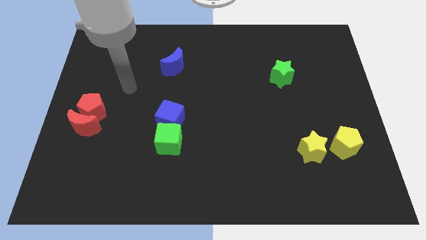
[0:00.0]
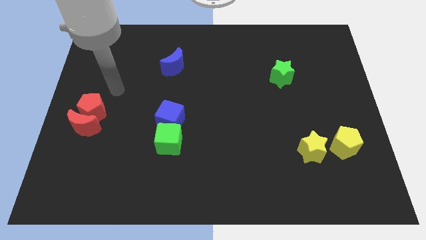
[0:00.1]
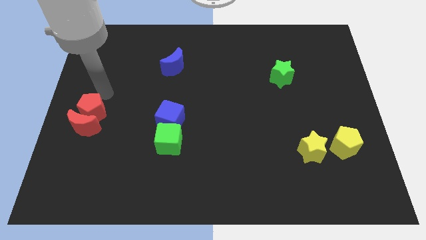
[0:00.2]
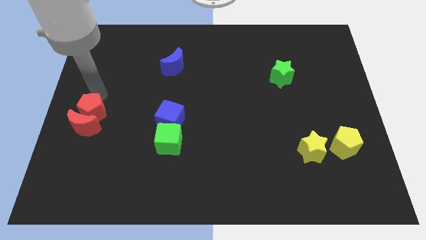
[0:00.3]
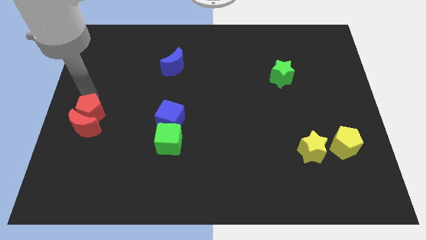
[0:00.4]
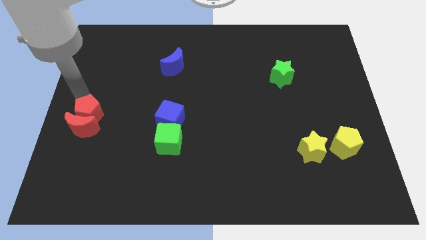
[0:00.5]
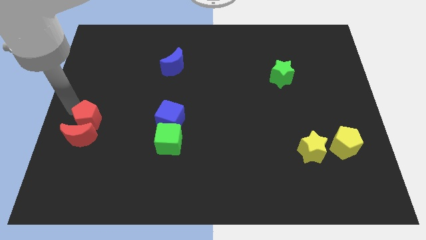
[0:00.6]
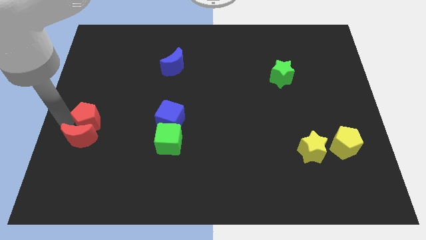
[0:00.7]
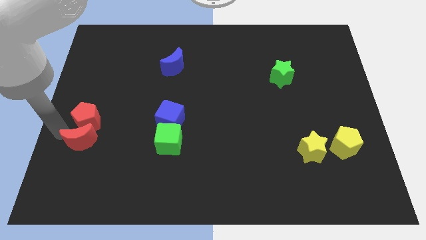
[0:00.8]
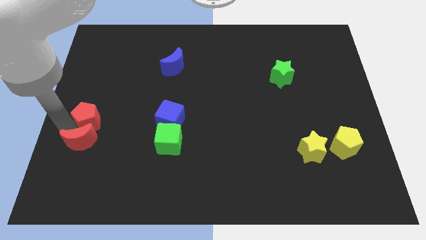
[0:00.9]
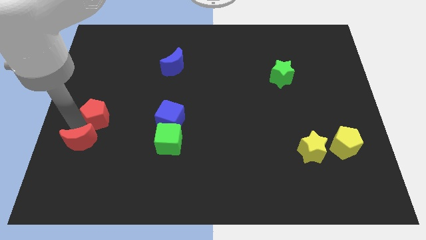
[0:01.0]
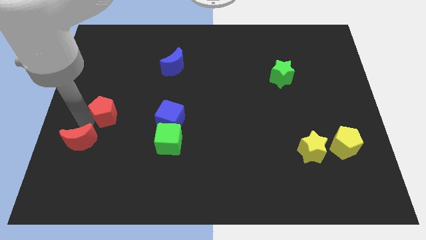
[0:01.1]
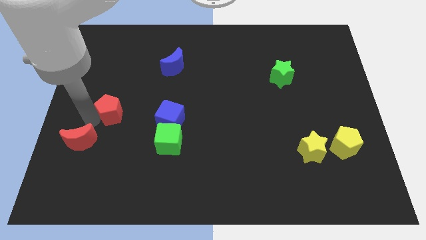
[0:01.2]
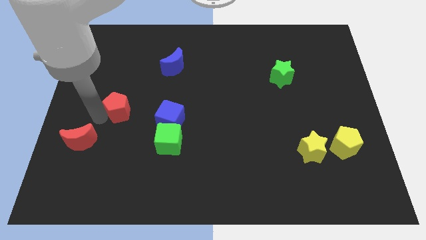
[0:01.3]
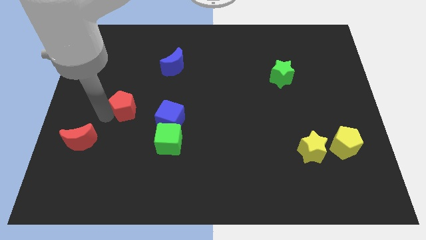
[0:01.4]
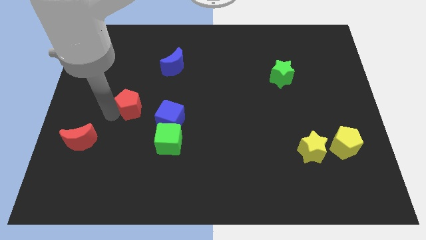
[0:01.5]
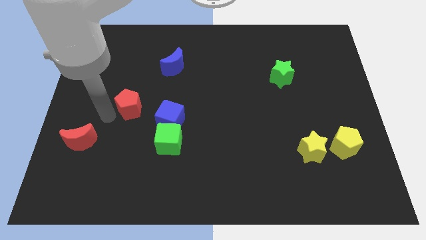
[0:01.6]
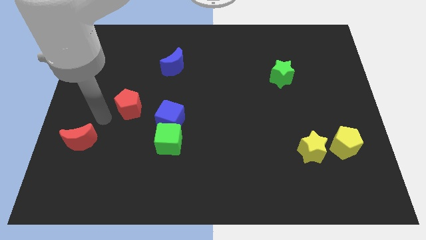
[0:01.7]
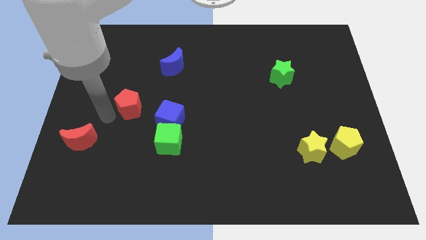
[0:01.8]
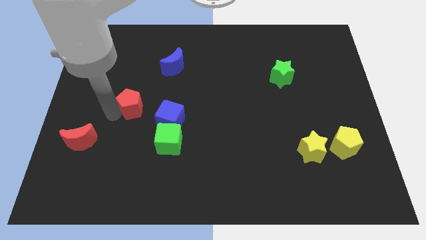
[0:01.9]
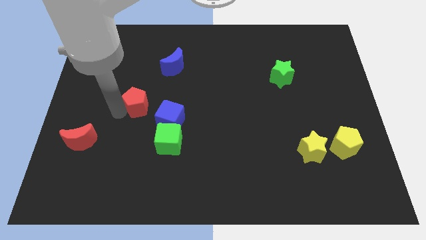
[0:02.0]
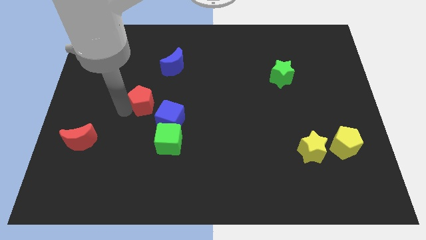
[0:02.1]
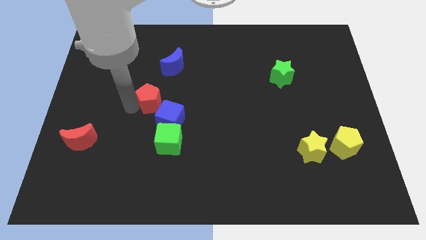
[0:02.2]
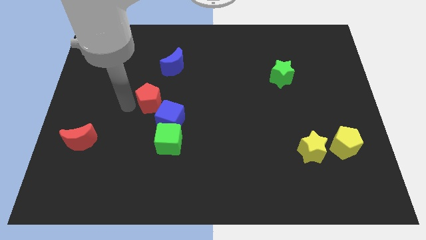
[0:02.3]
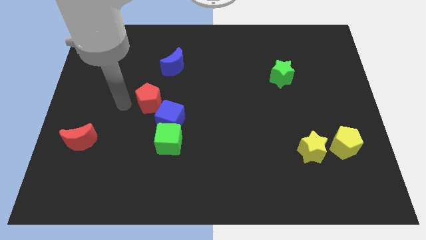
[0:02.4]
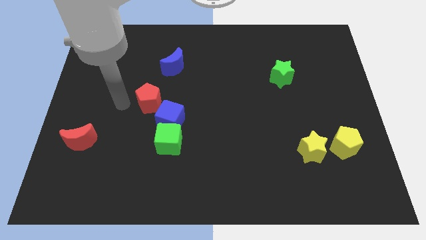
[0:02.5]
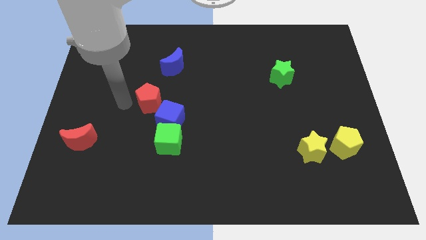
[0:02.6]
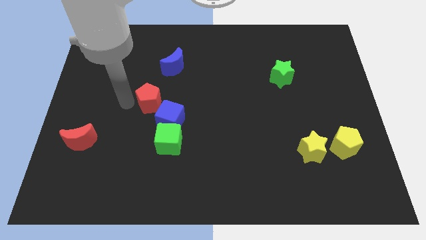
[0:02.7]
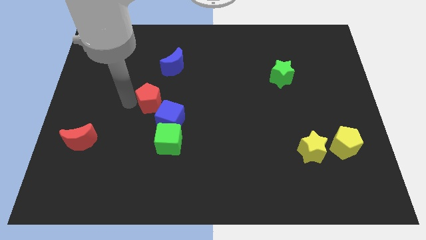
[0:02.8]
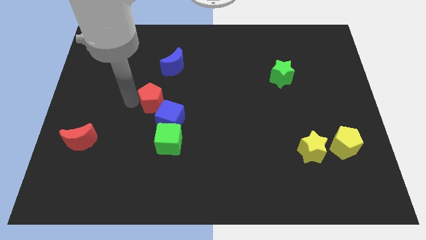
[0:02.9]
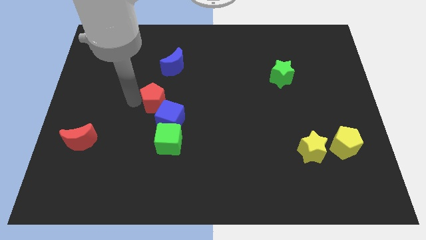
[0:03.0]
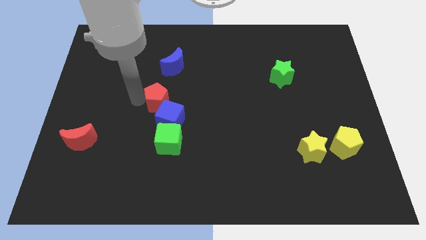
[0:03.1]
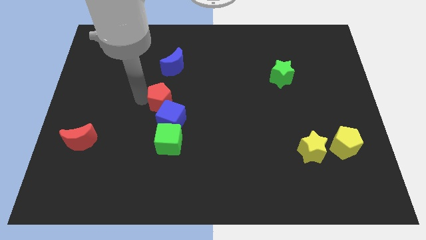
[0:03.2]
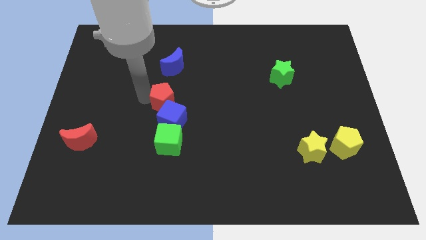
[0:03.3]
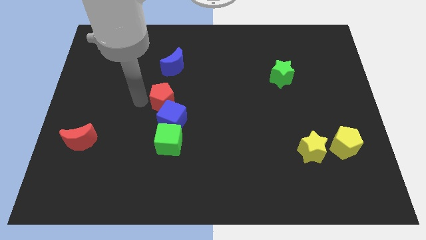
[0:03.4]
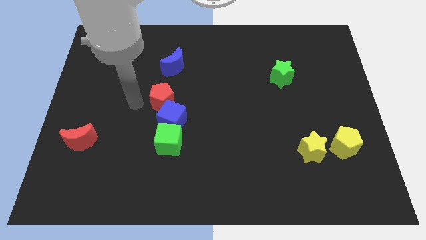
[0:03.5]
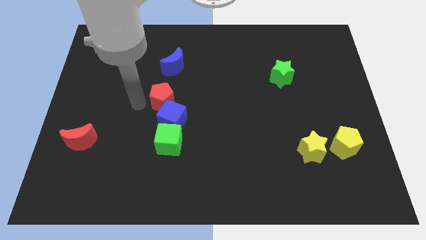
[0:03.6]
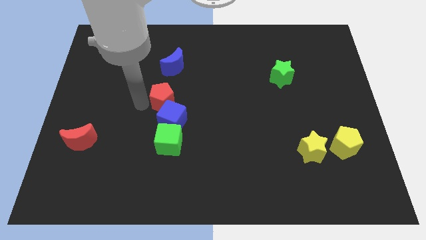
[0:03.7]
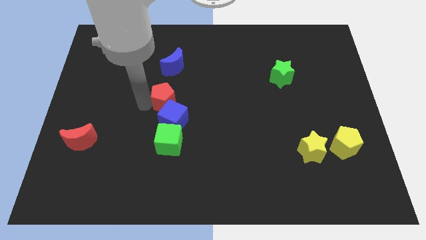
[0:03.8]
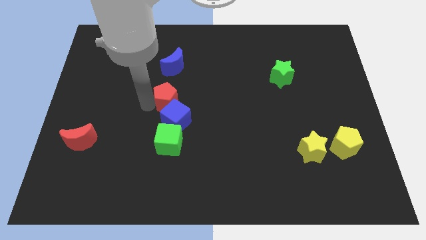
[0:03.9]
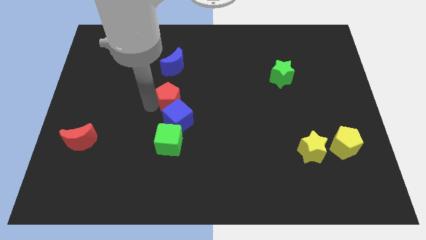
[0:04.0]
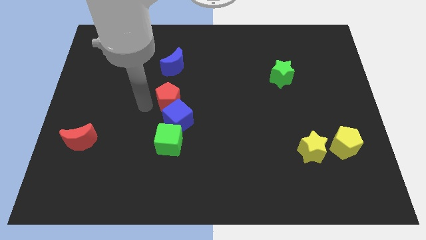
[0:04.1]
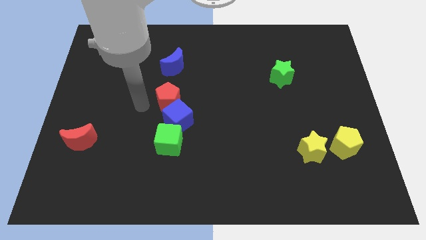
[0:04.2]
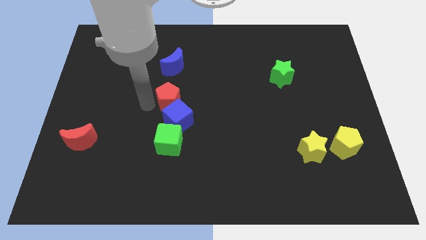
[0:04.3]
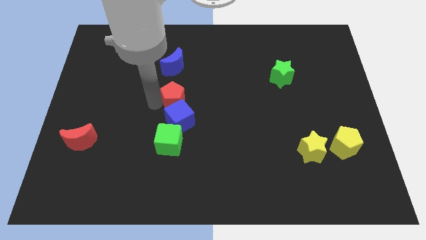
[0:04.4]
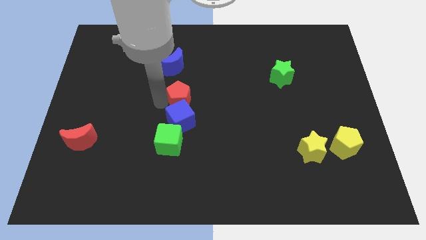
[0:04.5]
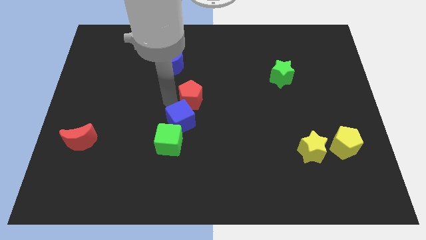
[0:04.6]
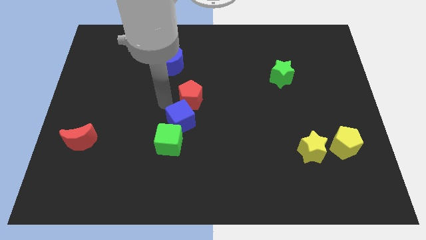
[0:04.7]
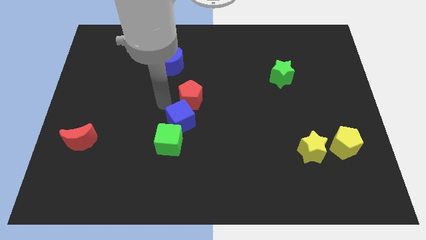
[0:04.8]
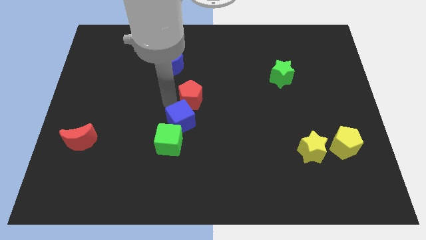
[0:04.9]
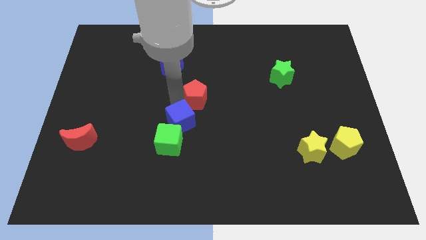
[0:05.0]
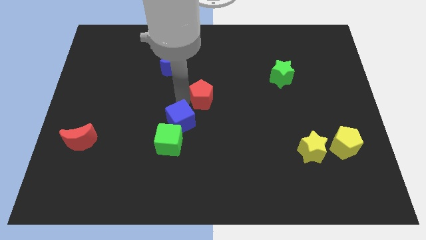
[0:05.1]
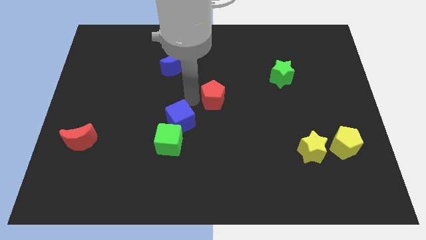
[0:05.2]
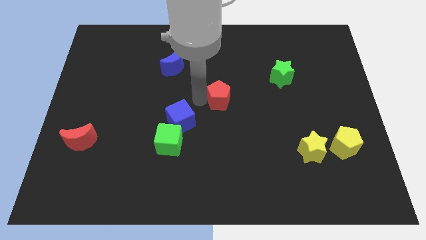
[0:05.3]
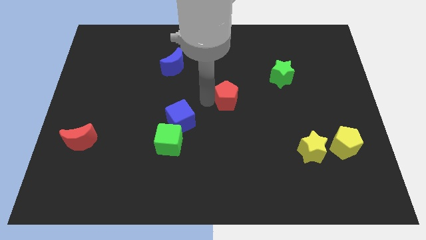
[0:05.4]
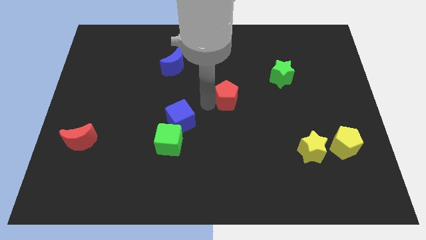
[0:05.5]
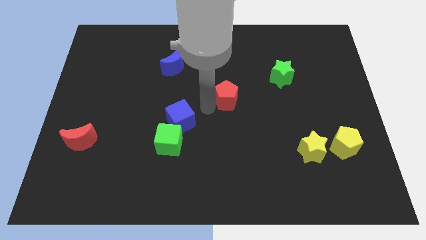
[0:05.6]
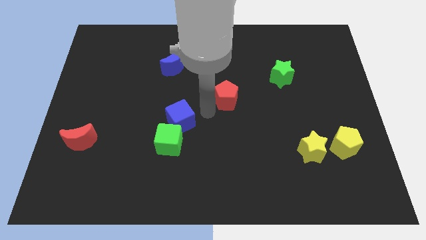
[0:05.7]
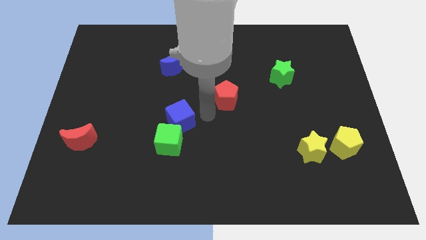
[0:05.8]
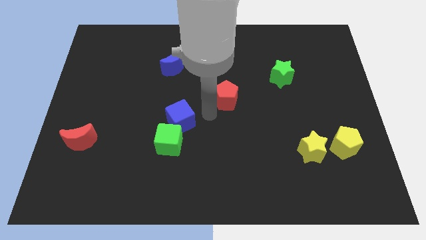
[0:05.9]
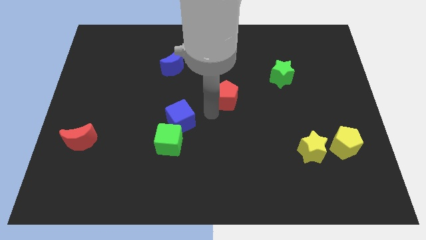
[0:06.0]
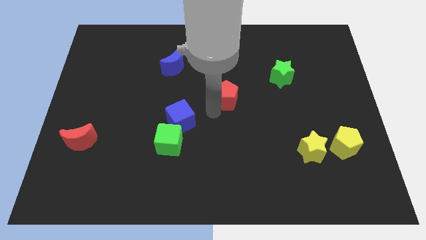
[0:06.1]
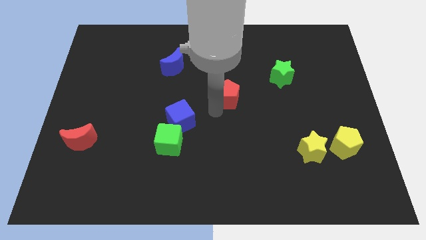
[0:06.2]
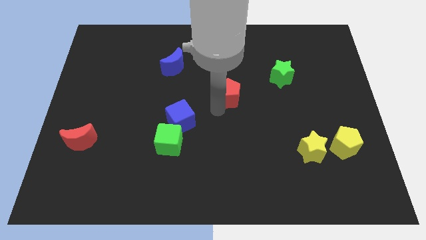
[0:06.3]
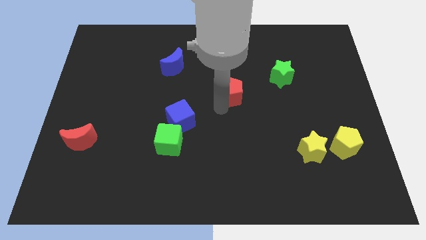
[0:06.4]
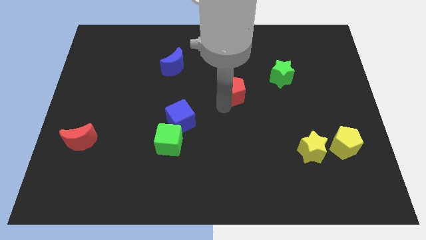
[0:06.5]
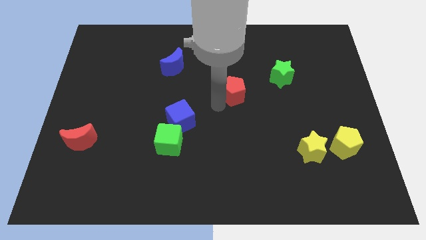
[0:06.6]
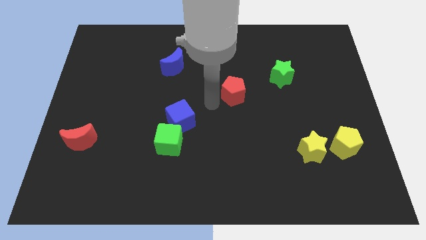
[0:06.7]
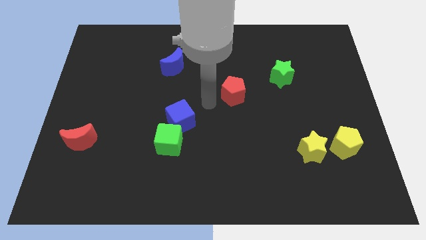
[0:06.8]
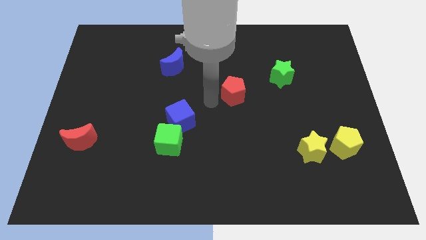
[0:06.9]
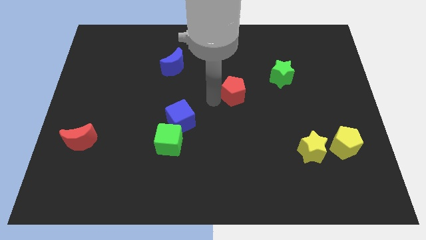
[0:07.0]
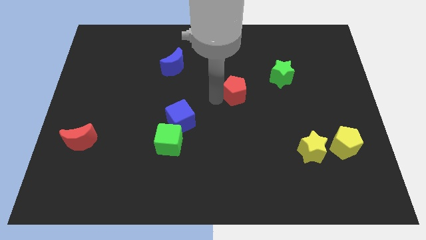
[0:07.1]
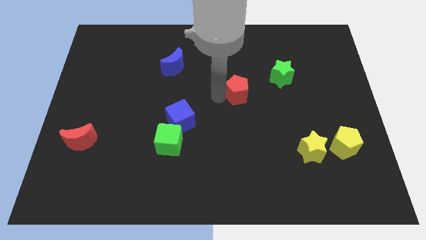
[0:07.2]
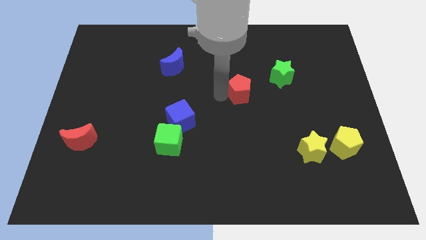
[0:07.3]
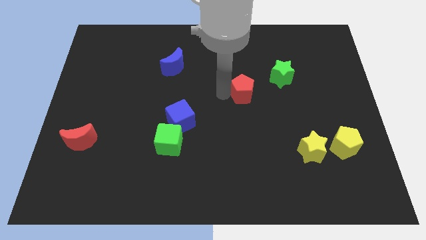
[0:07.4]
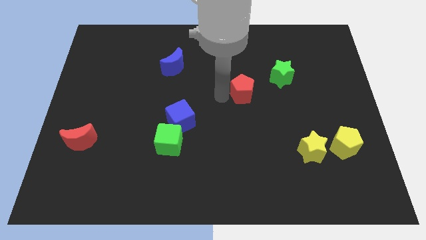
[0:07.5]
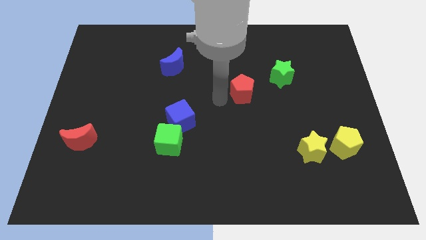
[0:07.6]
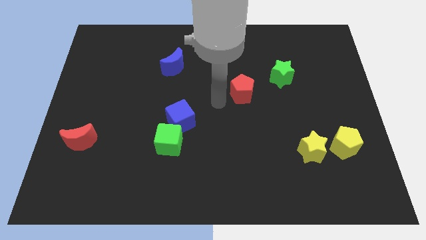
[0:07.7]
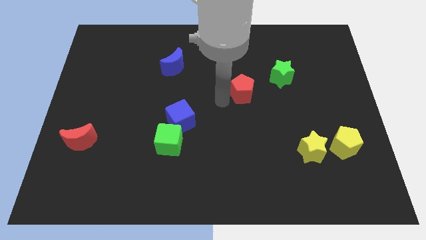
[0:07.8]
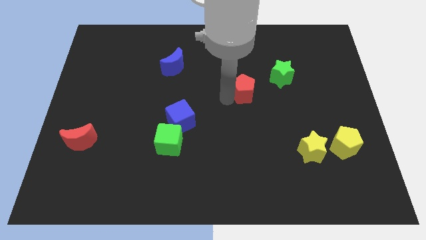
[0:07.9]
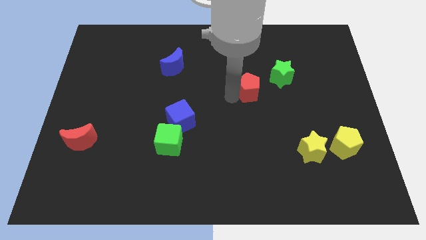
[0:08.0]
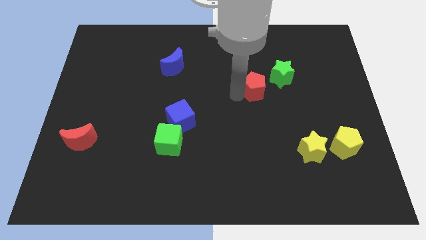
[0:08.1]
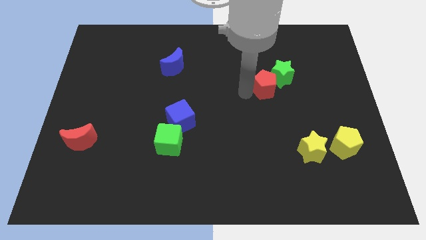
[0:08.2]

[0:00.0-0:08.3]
put the red pentagon next to the green star
